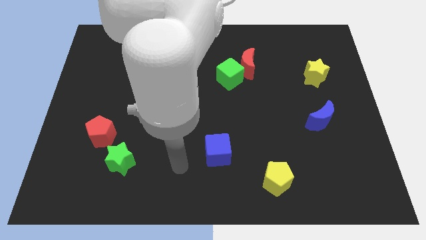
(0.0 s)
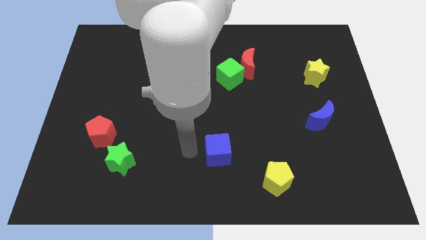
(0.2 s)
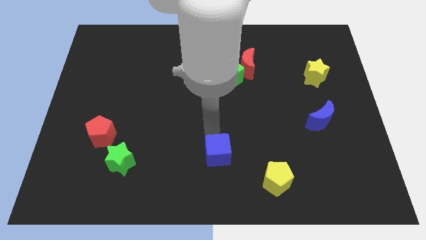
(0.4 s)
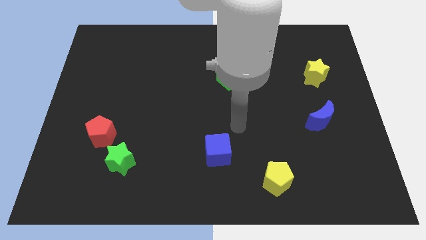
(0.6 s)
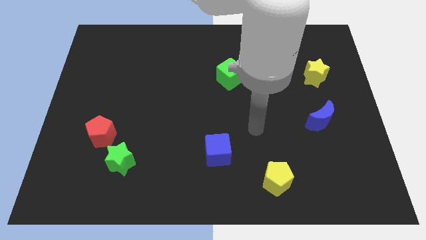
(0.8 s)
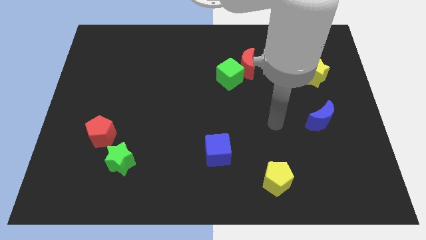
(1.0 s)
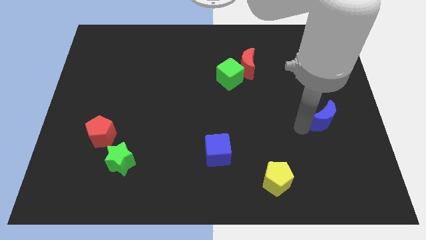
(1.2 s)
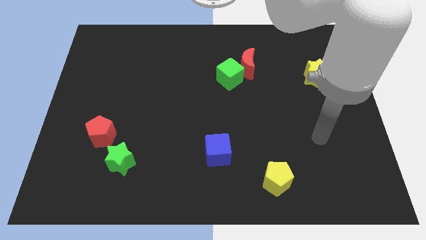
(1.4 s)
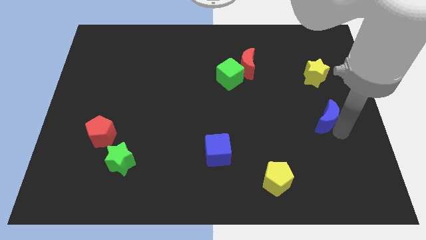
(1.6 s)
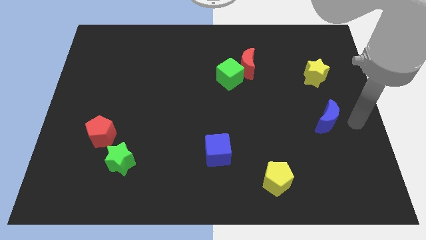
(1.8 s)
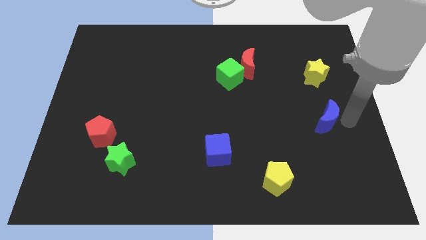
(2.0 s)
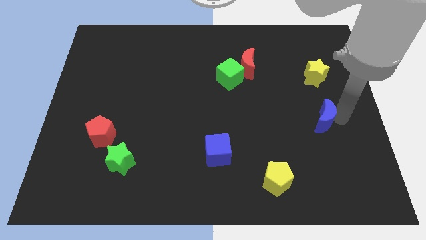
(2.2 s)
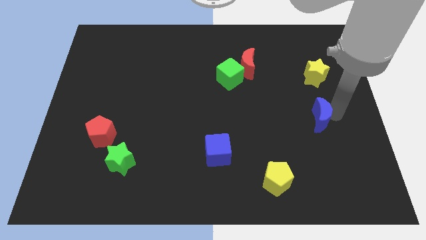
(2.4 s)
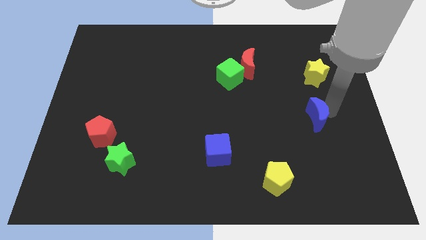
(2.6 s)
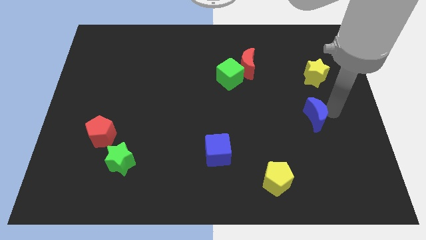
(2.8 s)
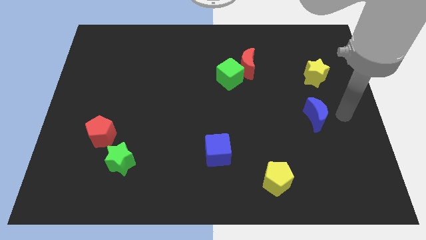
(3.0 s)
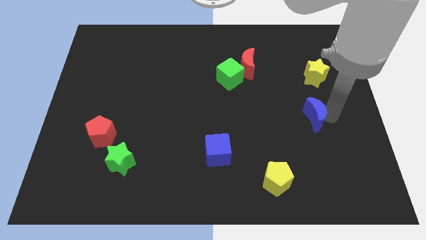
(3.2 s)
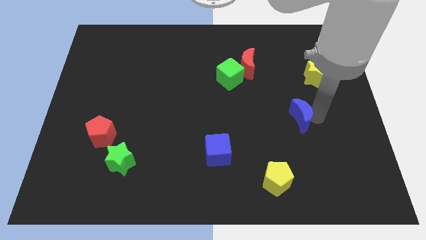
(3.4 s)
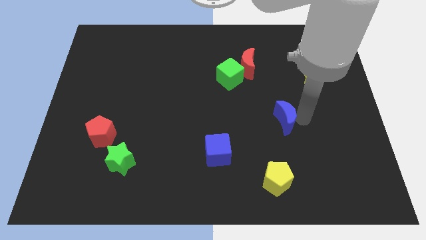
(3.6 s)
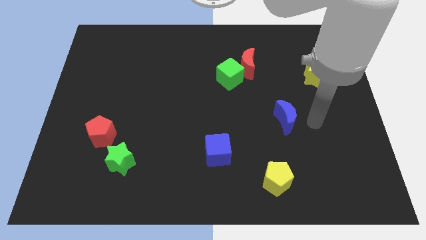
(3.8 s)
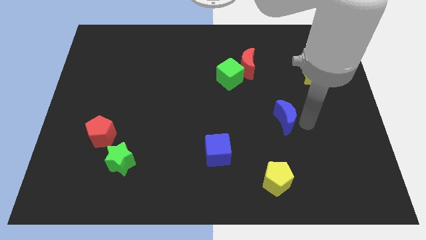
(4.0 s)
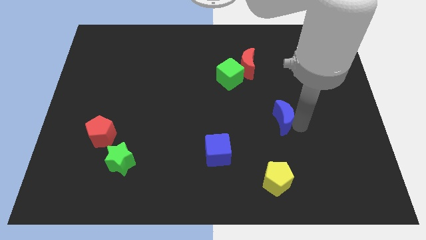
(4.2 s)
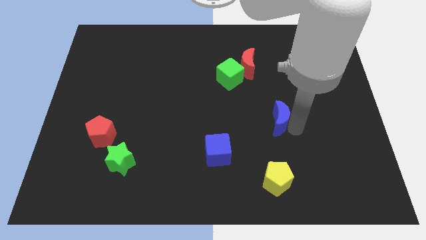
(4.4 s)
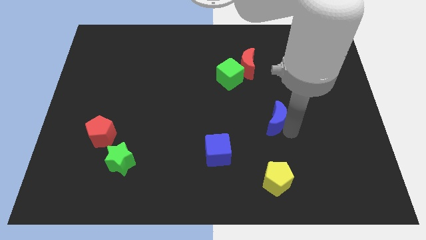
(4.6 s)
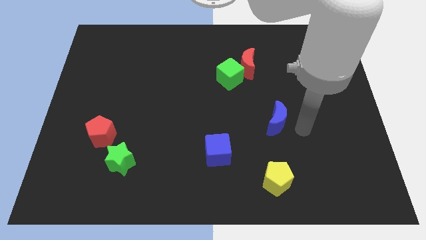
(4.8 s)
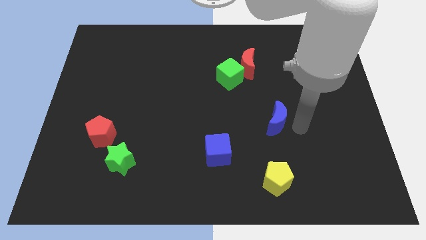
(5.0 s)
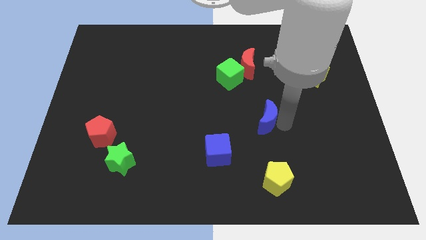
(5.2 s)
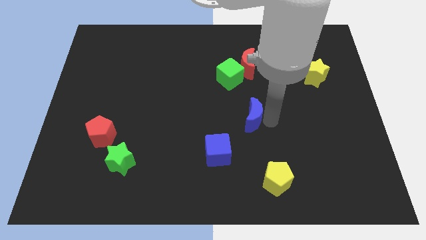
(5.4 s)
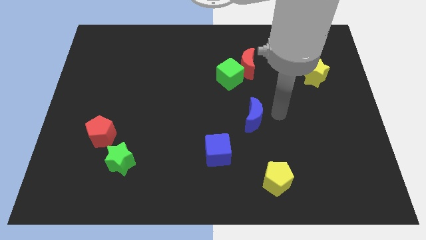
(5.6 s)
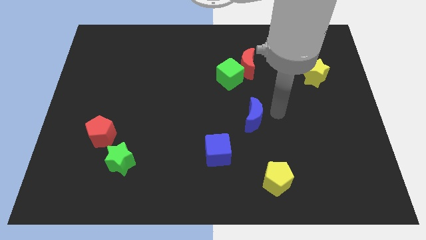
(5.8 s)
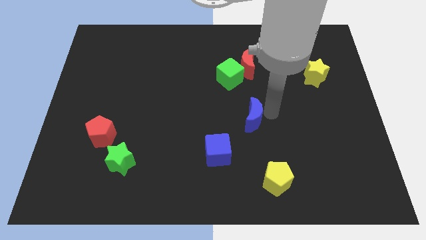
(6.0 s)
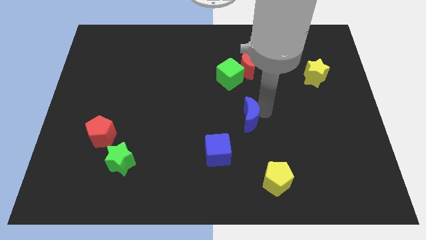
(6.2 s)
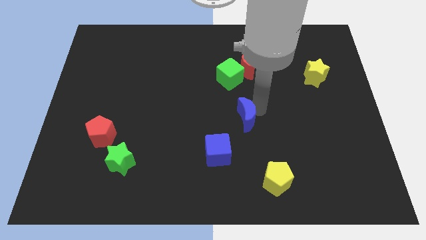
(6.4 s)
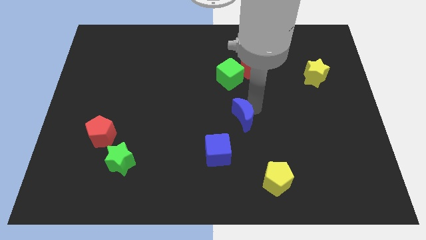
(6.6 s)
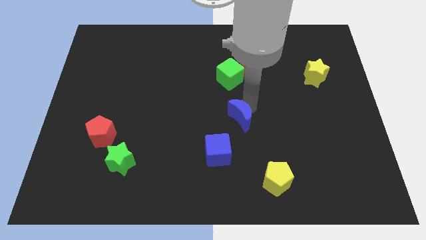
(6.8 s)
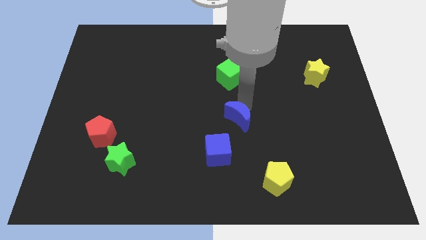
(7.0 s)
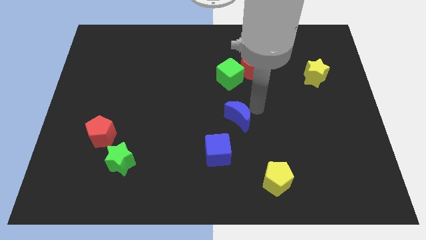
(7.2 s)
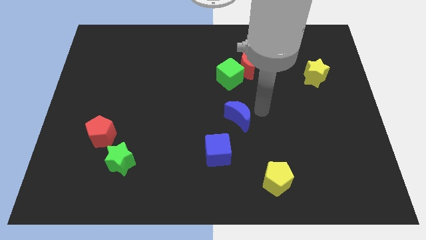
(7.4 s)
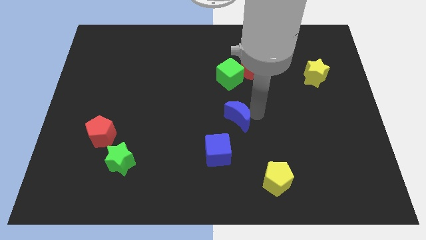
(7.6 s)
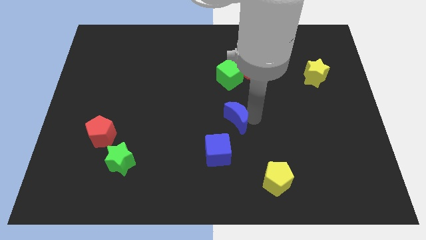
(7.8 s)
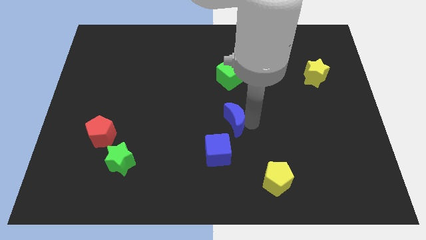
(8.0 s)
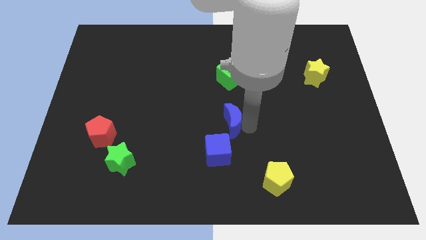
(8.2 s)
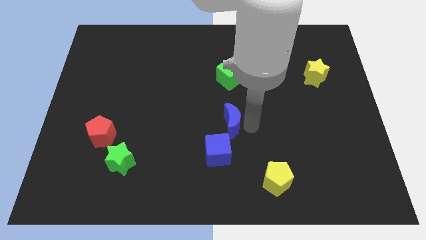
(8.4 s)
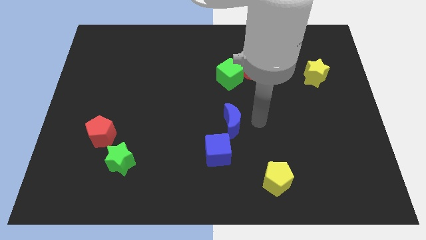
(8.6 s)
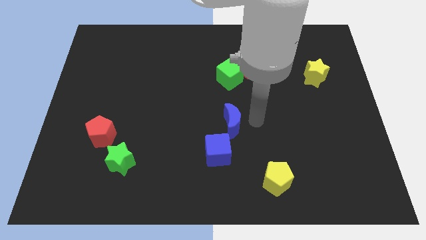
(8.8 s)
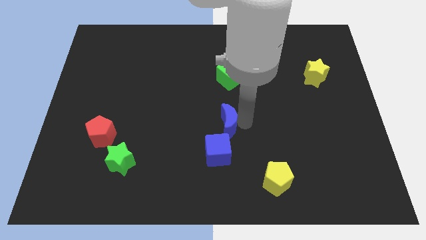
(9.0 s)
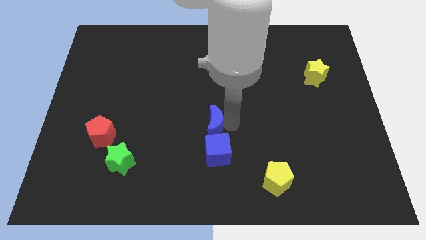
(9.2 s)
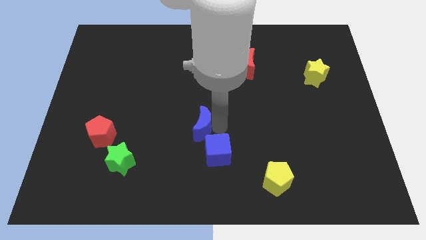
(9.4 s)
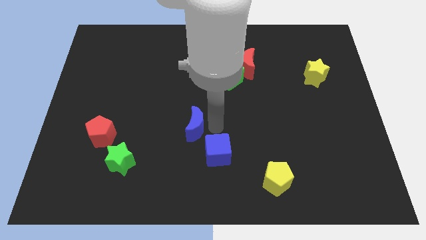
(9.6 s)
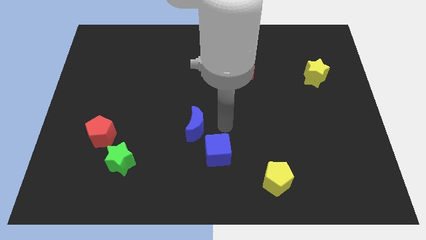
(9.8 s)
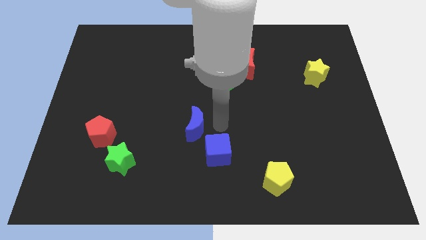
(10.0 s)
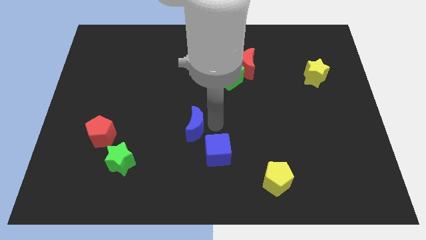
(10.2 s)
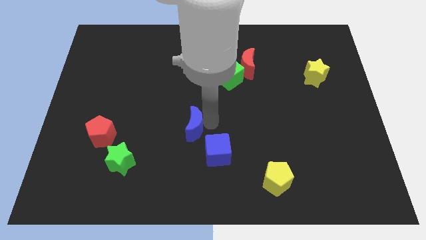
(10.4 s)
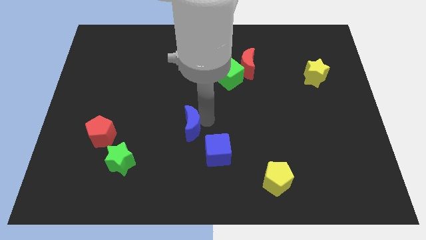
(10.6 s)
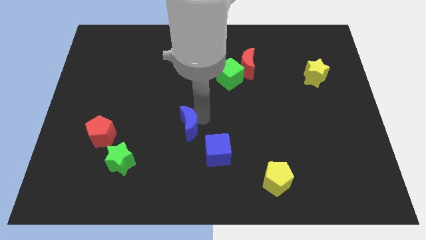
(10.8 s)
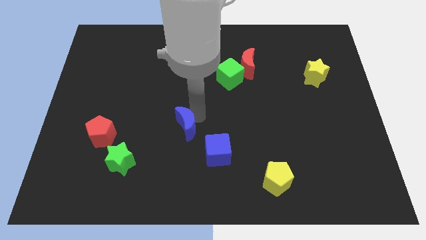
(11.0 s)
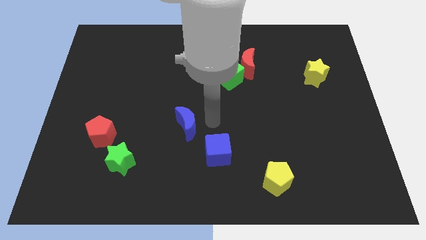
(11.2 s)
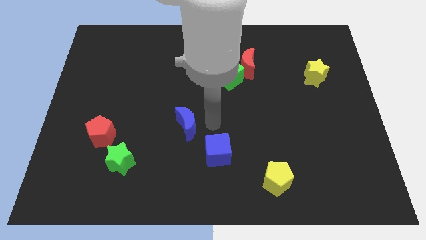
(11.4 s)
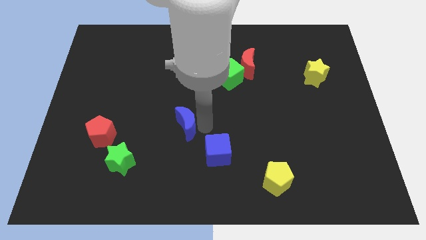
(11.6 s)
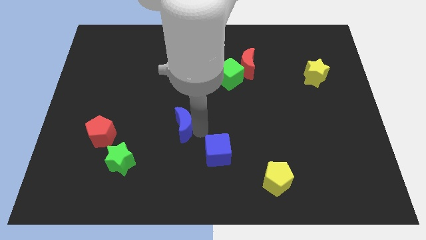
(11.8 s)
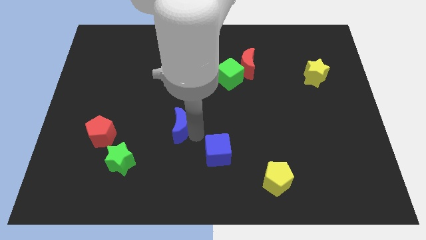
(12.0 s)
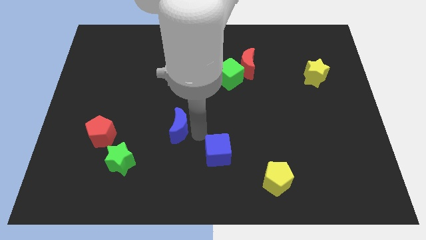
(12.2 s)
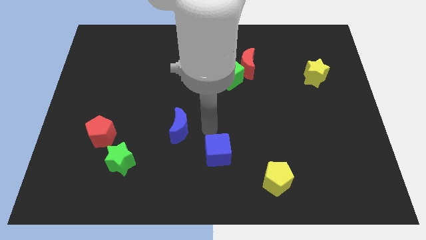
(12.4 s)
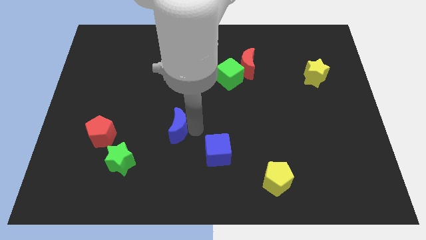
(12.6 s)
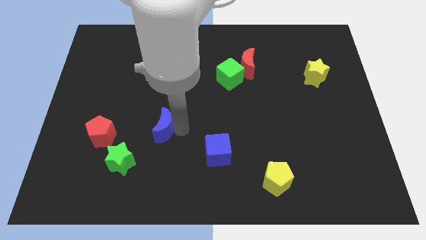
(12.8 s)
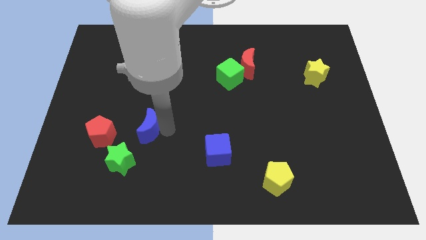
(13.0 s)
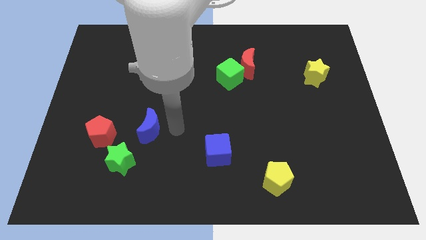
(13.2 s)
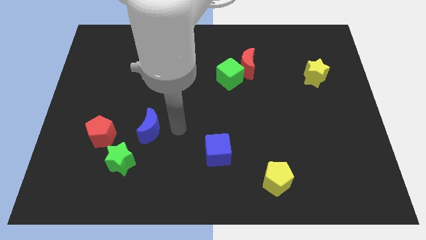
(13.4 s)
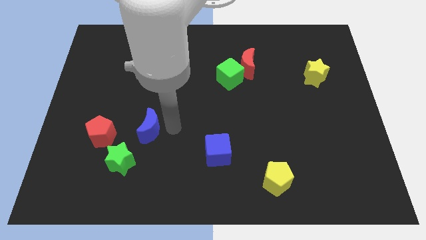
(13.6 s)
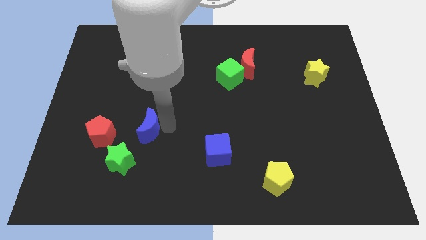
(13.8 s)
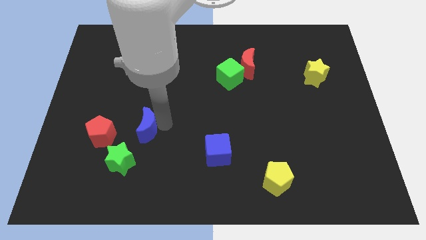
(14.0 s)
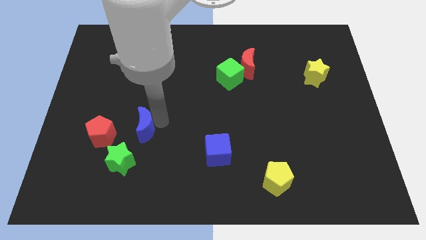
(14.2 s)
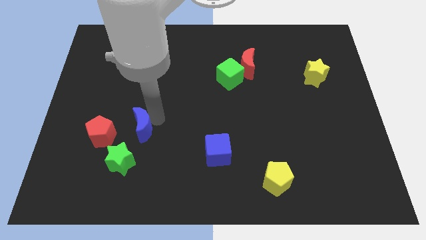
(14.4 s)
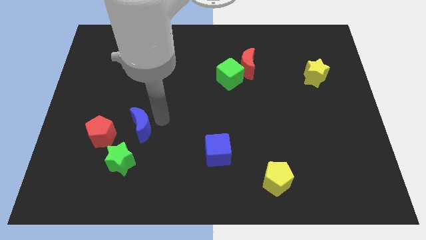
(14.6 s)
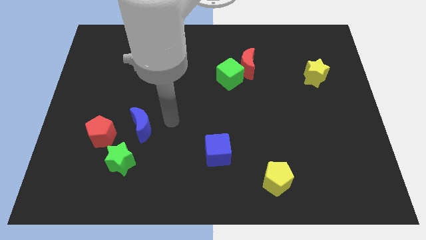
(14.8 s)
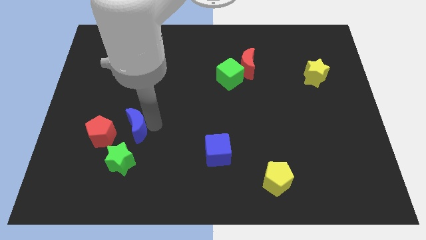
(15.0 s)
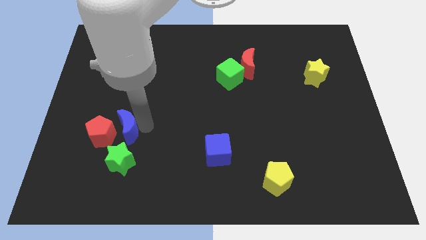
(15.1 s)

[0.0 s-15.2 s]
slide the blue moon next to the red pentagon

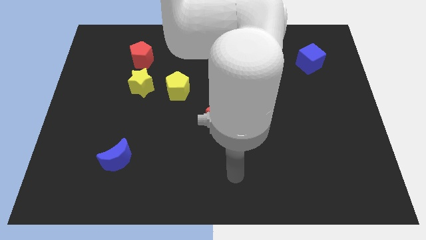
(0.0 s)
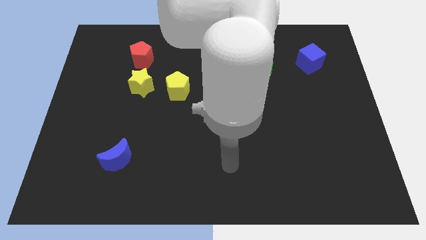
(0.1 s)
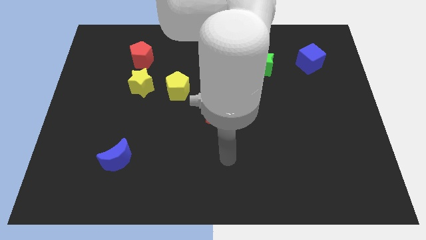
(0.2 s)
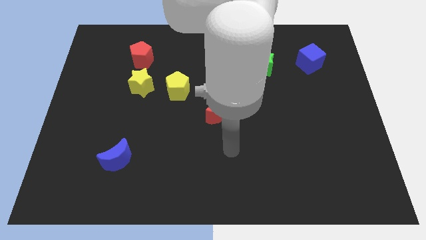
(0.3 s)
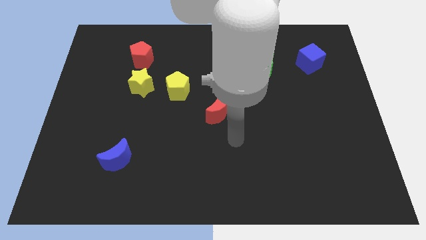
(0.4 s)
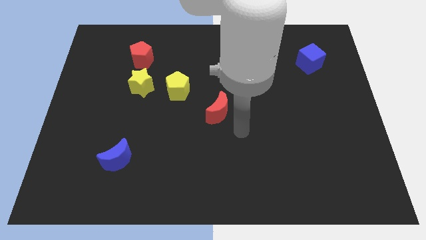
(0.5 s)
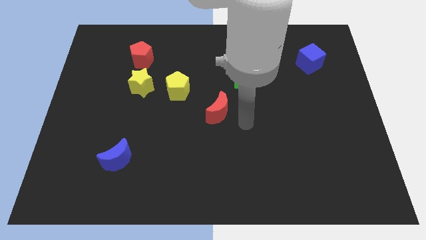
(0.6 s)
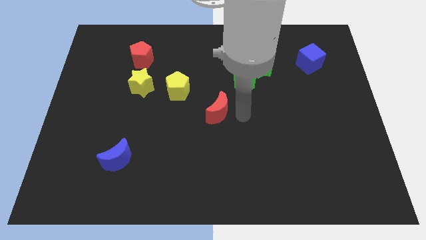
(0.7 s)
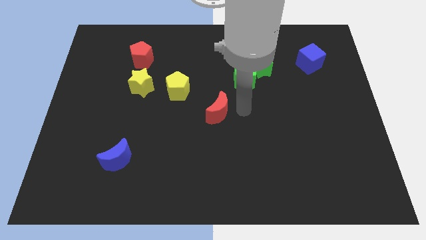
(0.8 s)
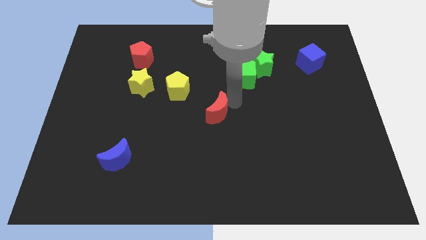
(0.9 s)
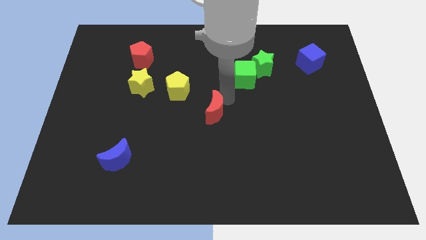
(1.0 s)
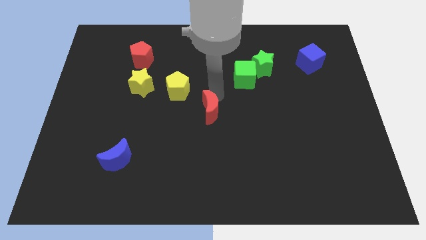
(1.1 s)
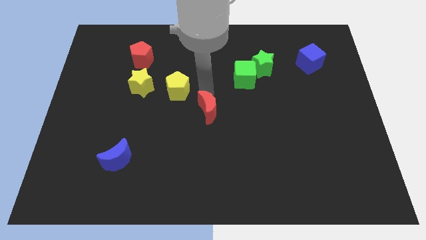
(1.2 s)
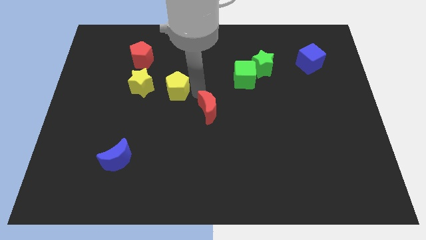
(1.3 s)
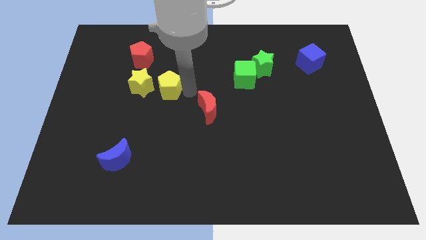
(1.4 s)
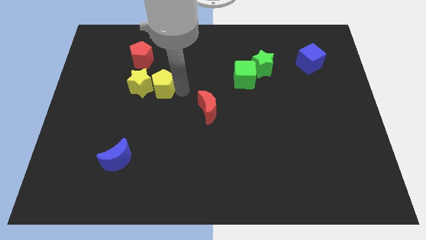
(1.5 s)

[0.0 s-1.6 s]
move the yellow pentagon close to the yellow star
